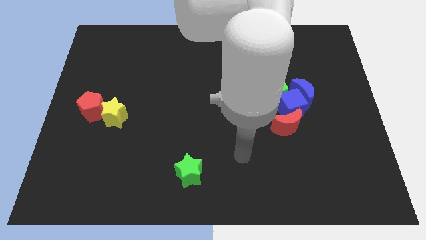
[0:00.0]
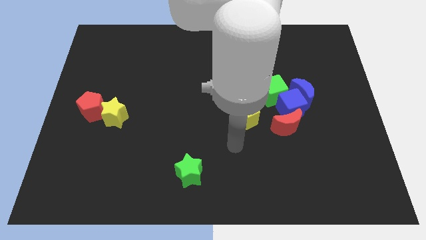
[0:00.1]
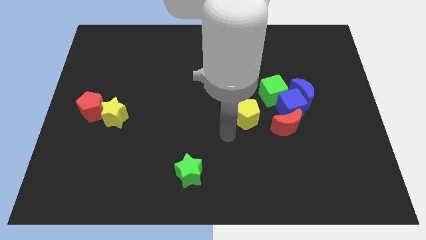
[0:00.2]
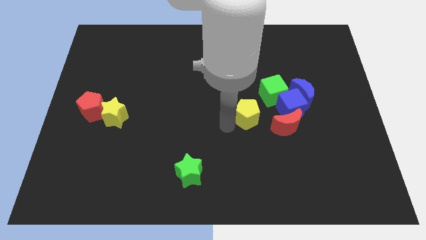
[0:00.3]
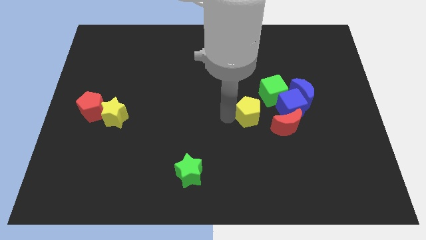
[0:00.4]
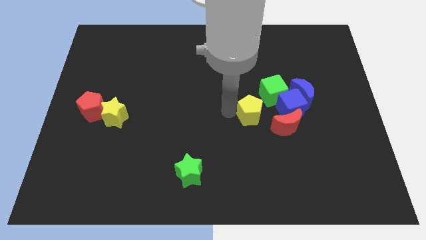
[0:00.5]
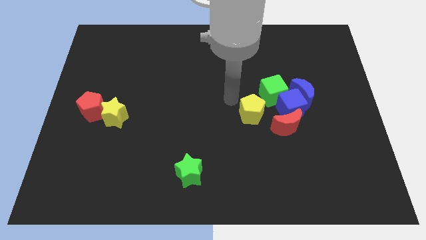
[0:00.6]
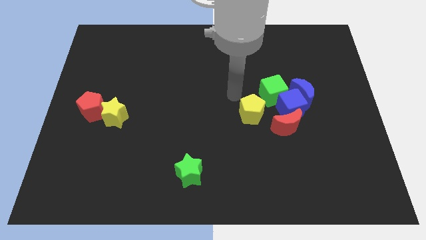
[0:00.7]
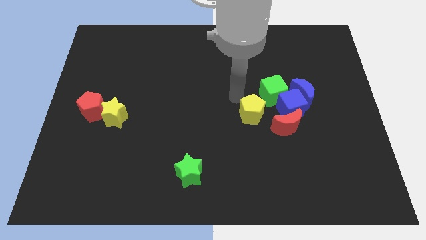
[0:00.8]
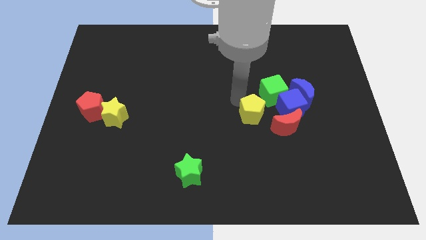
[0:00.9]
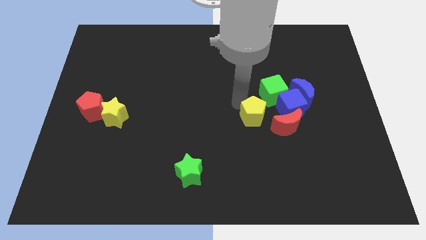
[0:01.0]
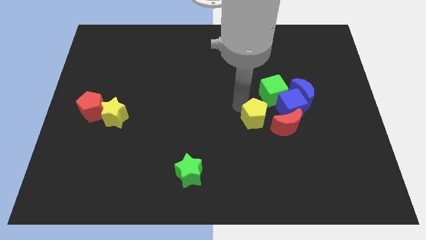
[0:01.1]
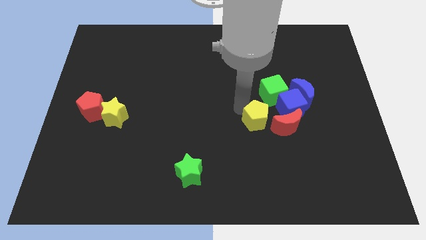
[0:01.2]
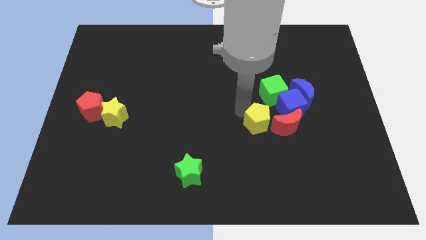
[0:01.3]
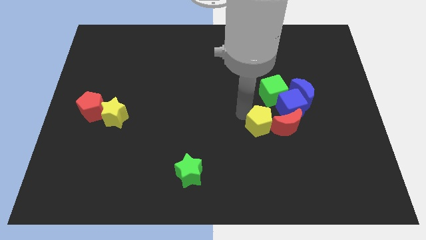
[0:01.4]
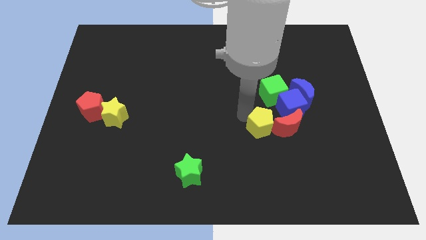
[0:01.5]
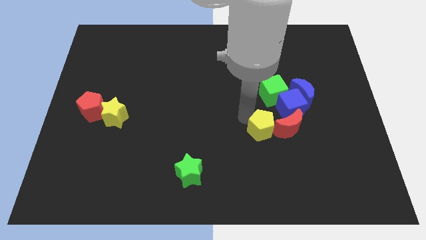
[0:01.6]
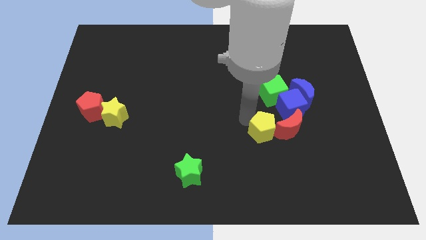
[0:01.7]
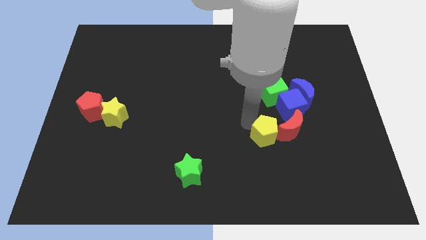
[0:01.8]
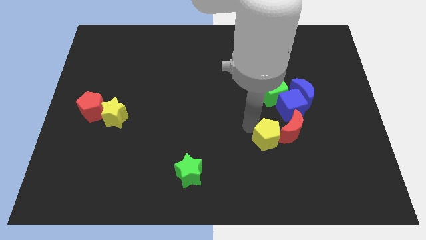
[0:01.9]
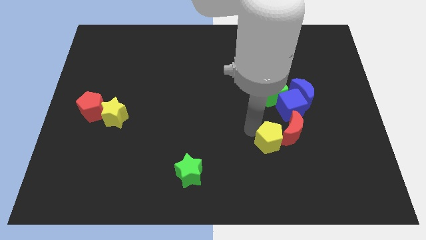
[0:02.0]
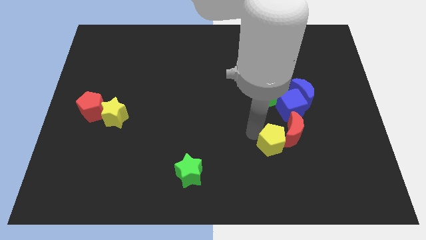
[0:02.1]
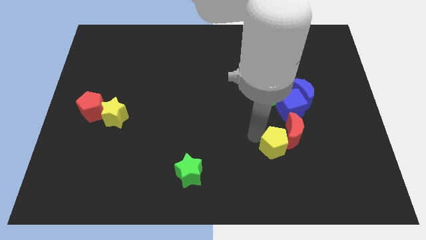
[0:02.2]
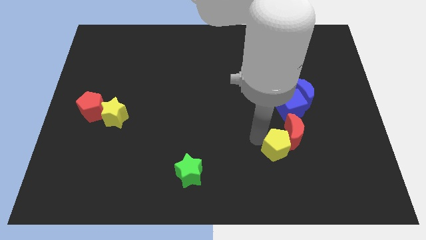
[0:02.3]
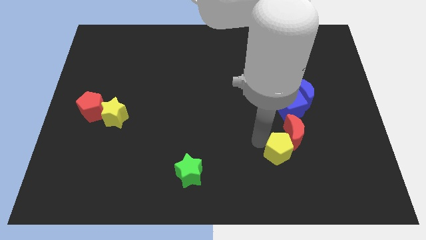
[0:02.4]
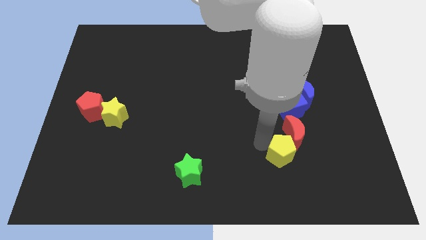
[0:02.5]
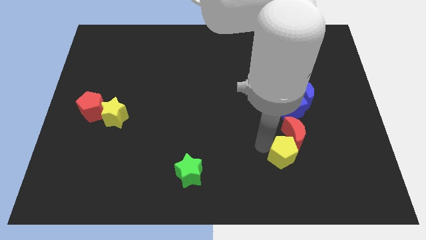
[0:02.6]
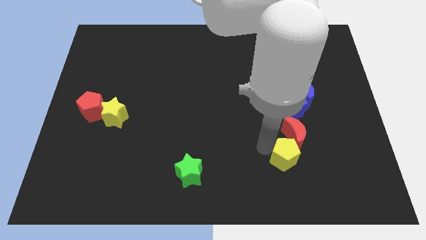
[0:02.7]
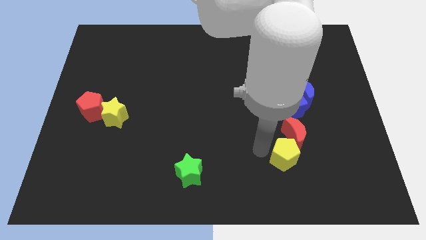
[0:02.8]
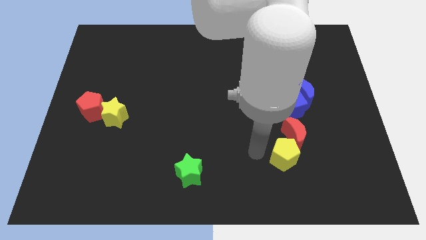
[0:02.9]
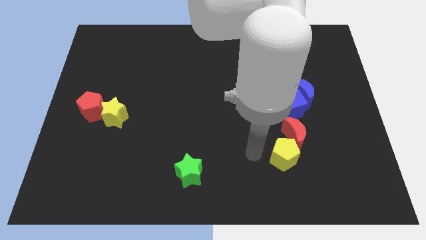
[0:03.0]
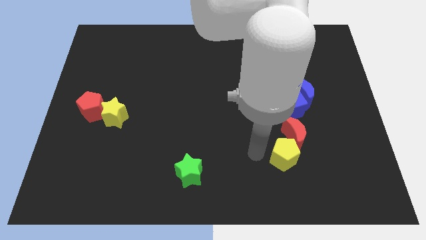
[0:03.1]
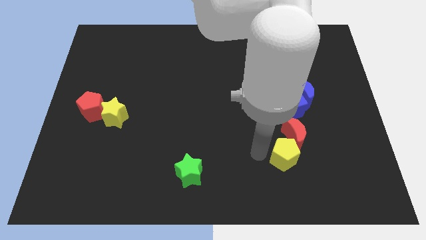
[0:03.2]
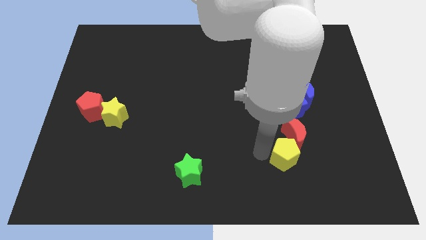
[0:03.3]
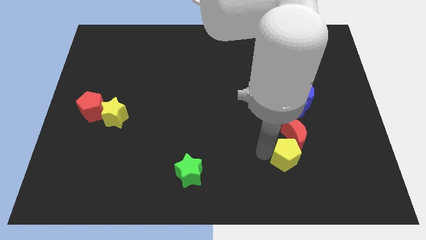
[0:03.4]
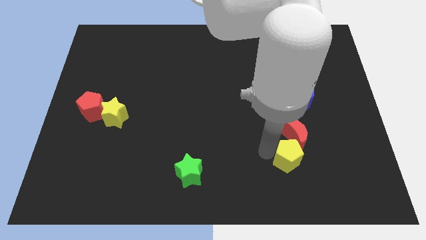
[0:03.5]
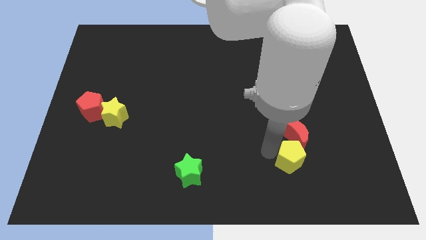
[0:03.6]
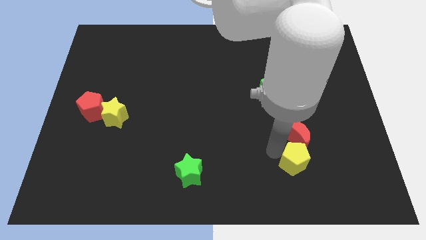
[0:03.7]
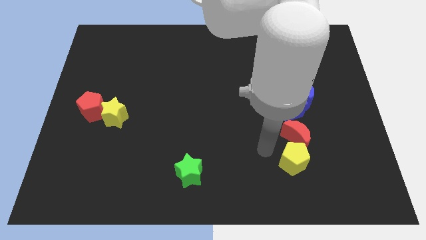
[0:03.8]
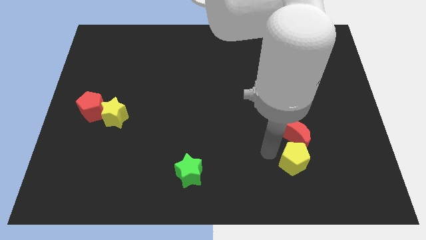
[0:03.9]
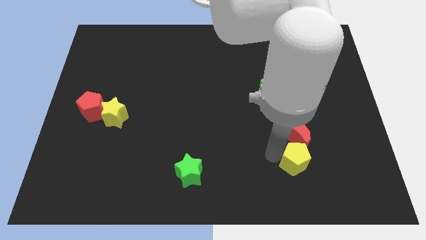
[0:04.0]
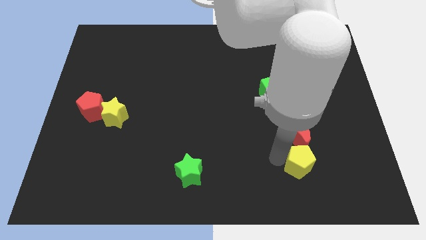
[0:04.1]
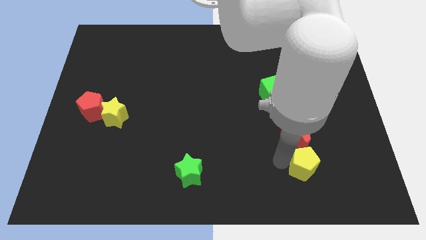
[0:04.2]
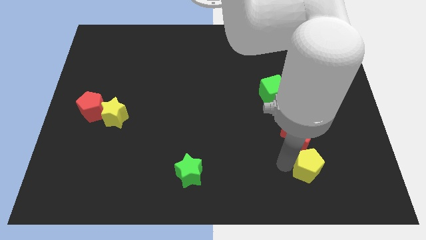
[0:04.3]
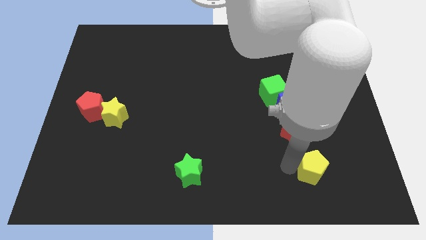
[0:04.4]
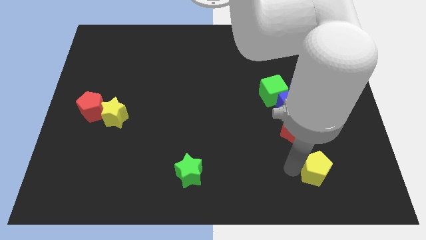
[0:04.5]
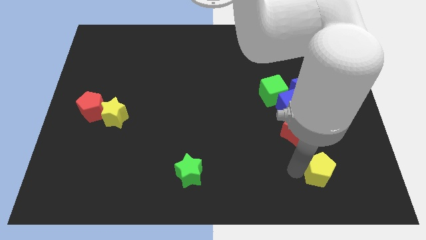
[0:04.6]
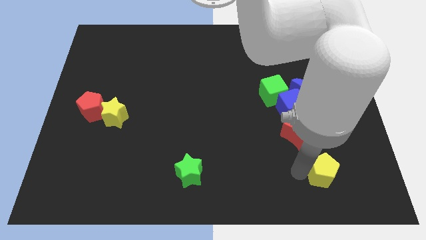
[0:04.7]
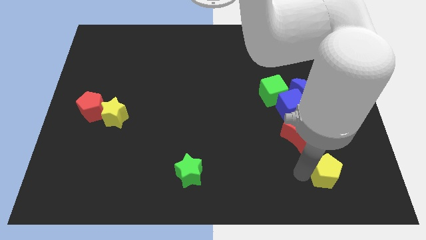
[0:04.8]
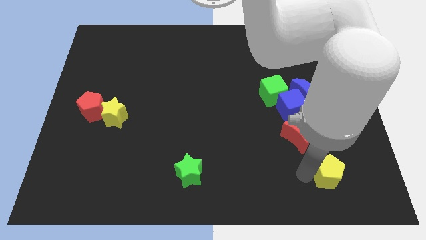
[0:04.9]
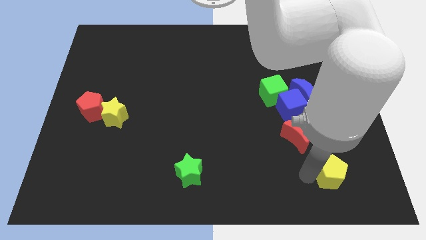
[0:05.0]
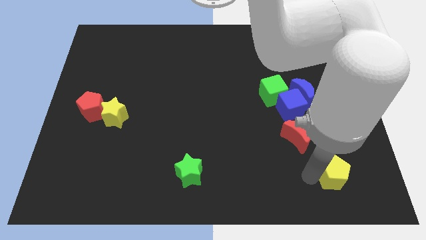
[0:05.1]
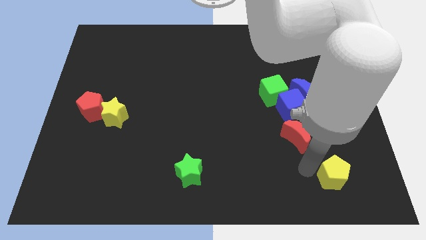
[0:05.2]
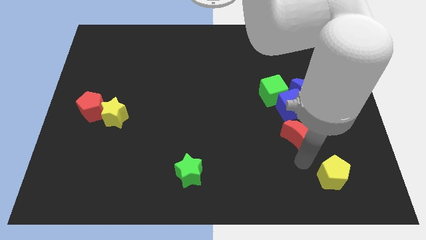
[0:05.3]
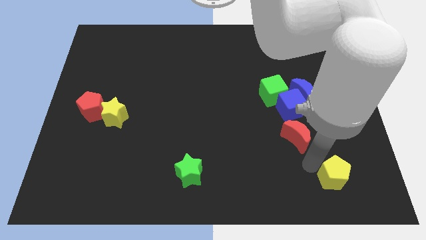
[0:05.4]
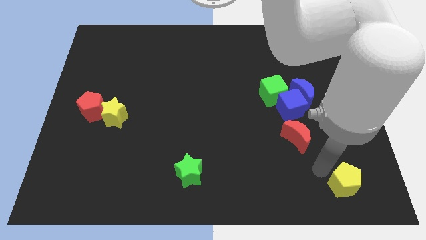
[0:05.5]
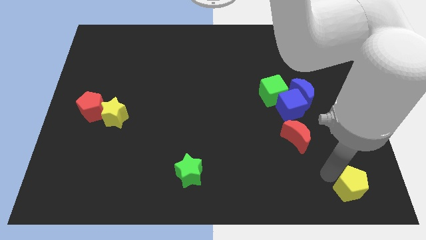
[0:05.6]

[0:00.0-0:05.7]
move the yellow pentagon to the lower right corner

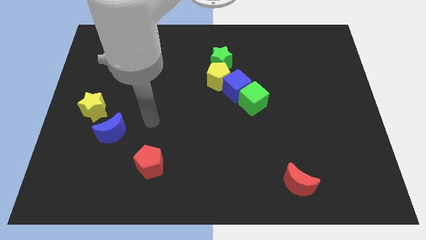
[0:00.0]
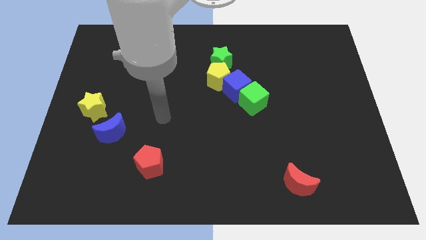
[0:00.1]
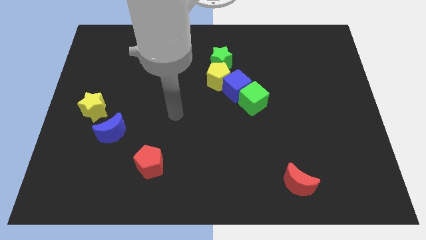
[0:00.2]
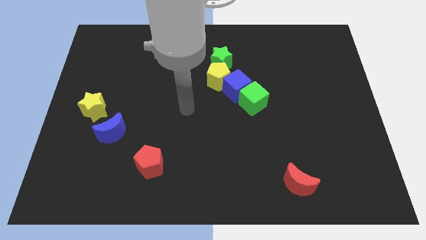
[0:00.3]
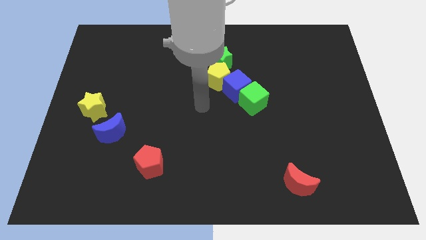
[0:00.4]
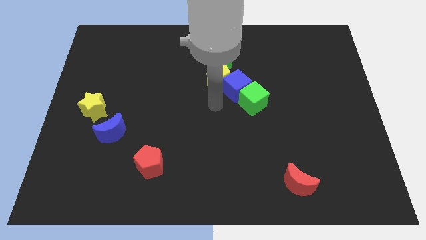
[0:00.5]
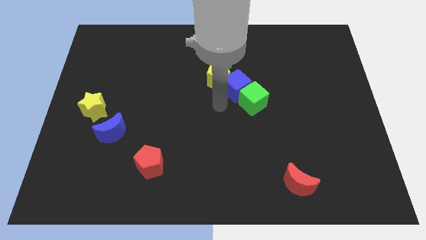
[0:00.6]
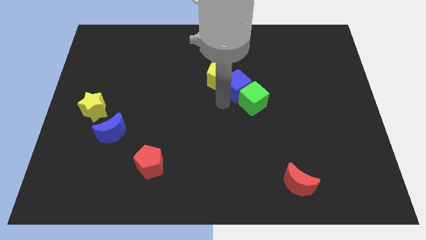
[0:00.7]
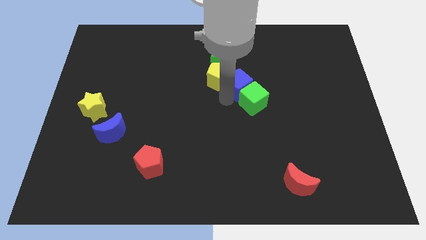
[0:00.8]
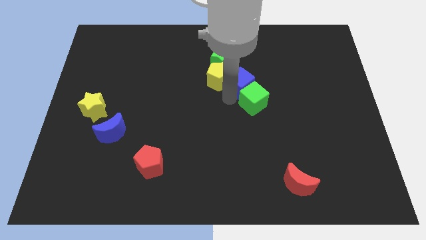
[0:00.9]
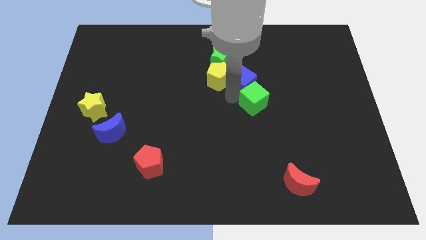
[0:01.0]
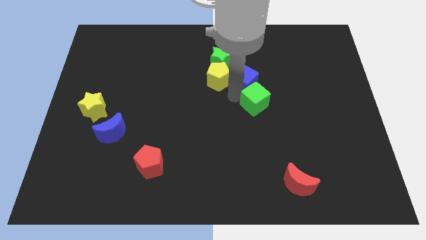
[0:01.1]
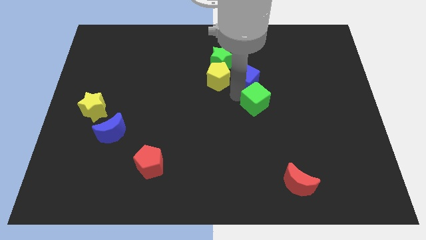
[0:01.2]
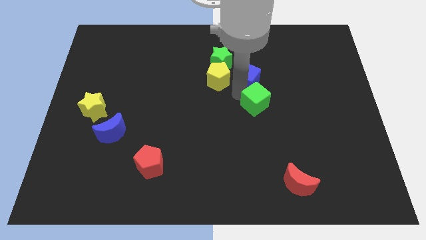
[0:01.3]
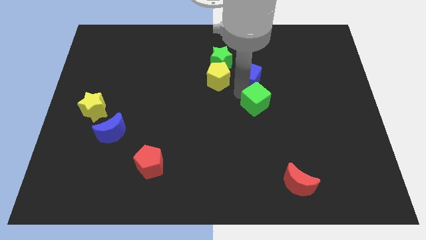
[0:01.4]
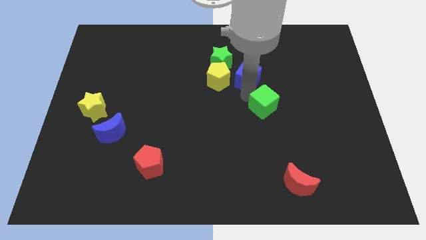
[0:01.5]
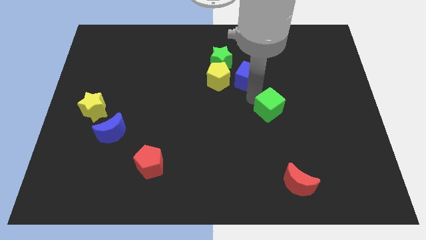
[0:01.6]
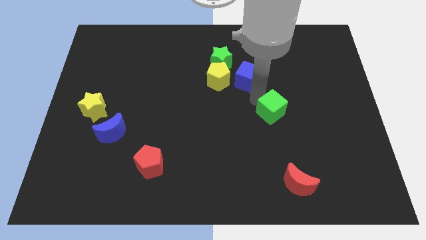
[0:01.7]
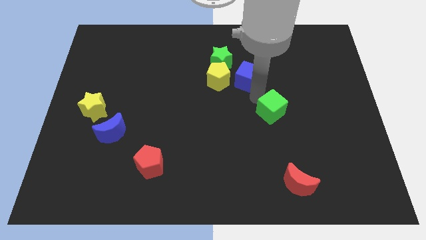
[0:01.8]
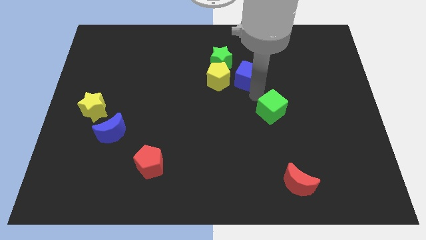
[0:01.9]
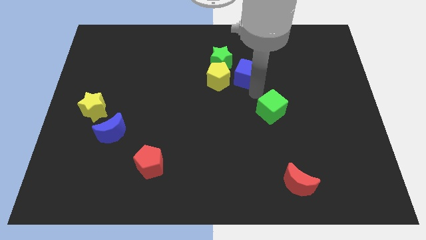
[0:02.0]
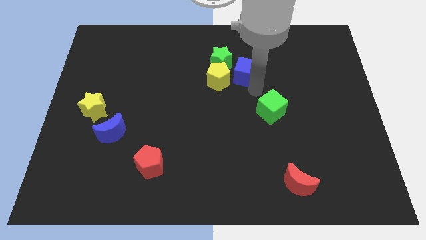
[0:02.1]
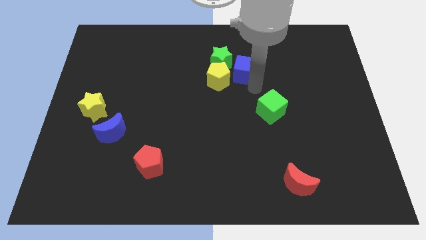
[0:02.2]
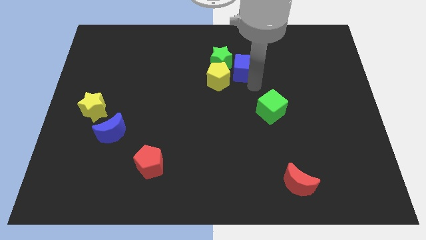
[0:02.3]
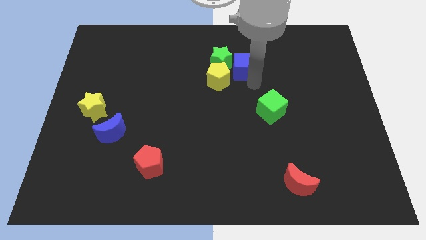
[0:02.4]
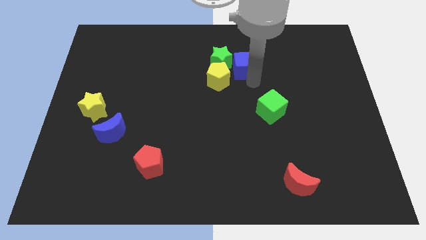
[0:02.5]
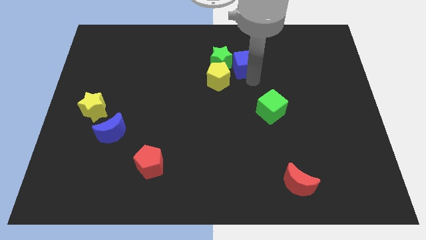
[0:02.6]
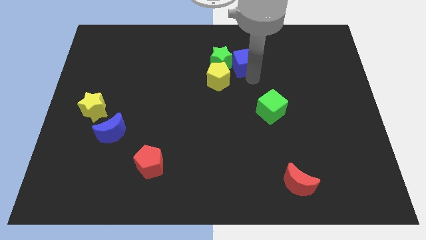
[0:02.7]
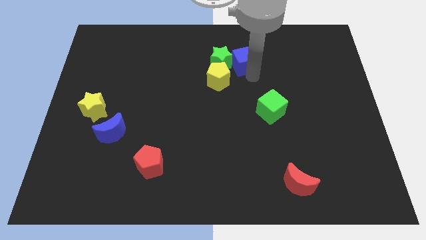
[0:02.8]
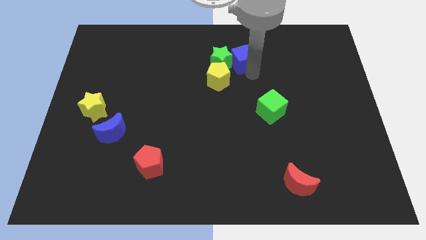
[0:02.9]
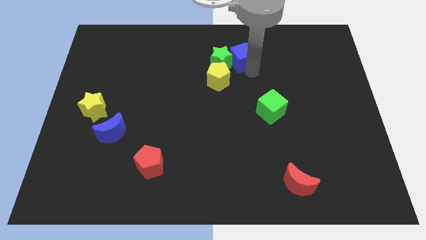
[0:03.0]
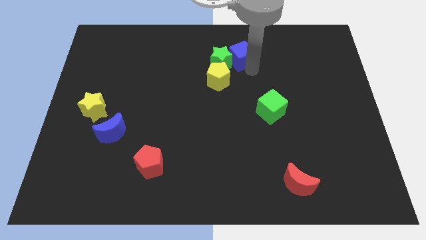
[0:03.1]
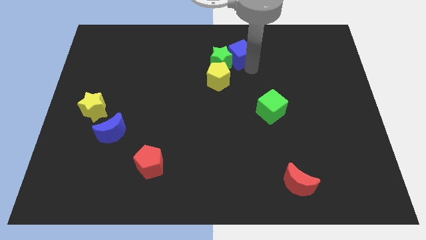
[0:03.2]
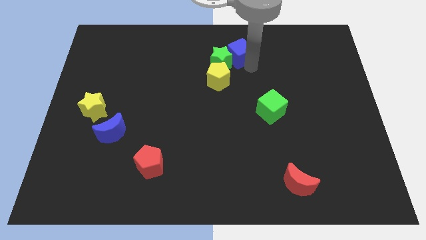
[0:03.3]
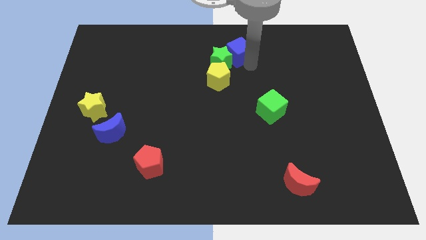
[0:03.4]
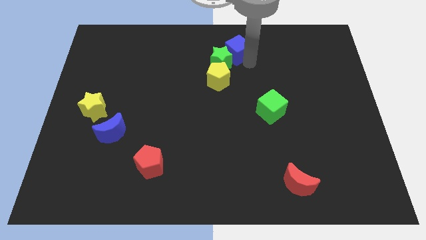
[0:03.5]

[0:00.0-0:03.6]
slide the blue cube to the towards your base
